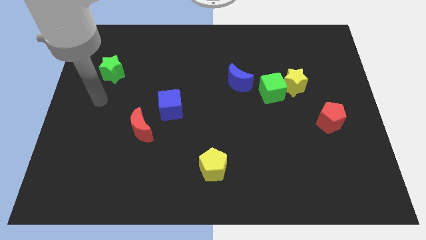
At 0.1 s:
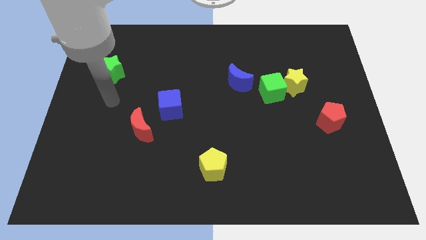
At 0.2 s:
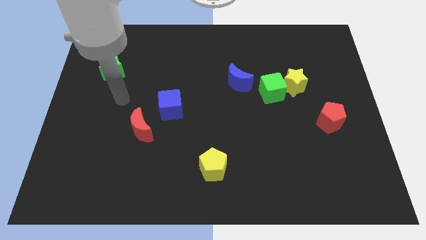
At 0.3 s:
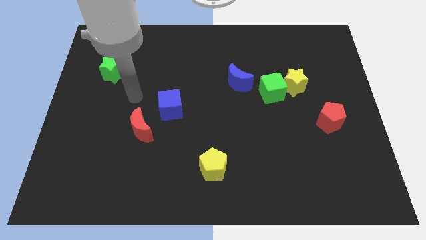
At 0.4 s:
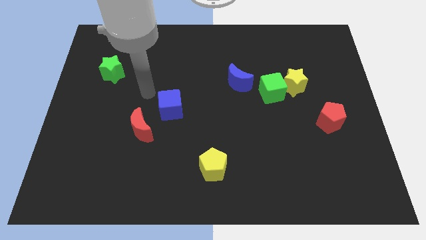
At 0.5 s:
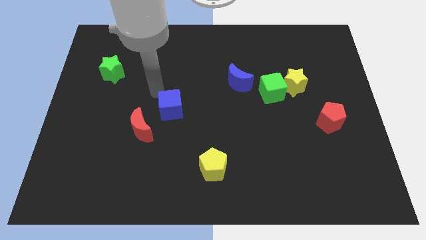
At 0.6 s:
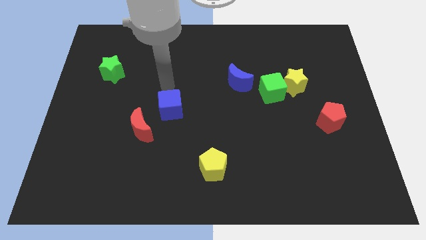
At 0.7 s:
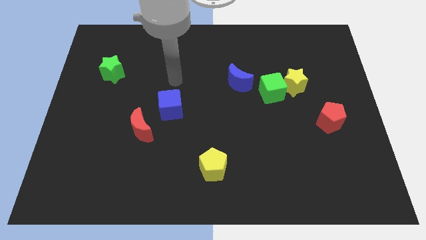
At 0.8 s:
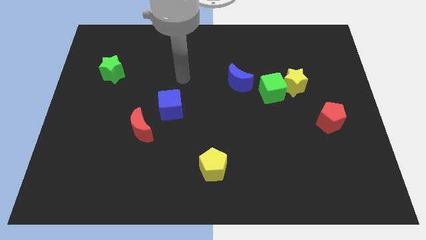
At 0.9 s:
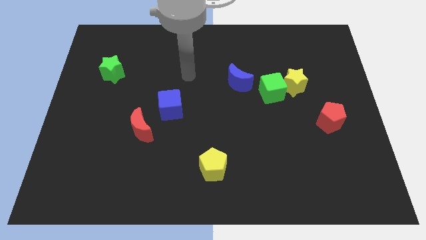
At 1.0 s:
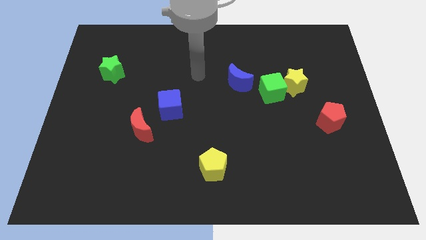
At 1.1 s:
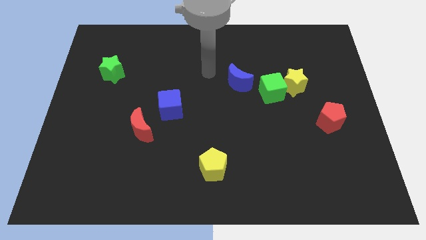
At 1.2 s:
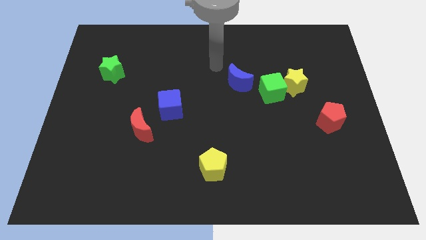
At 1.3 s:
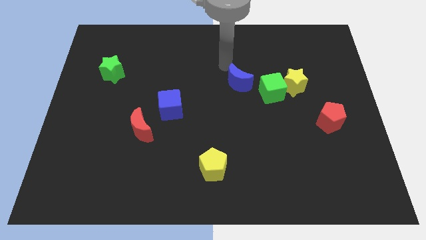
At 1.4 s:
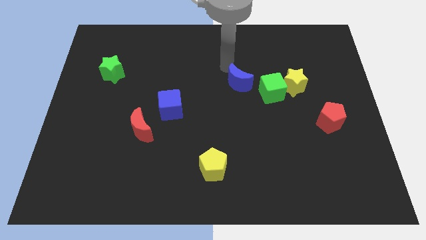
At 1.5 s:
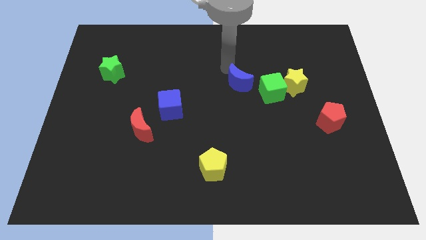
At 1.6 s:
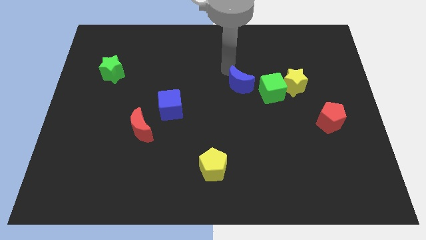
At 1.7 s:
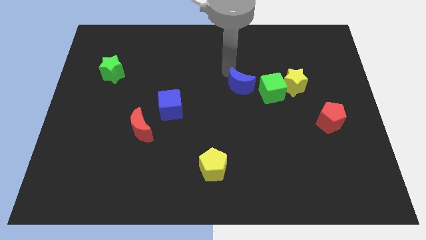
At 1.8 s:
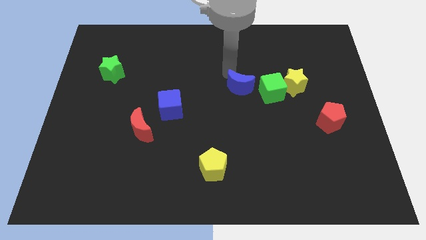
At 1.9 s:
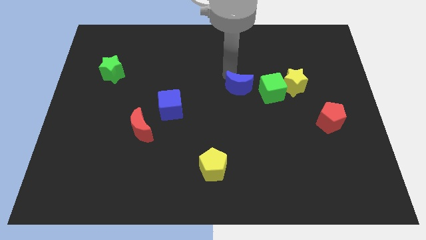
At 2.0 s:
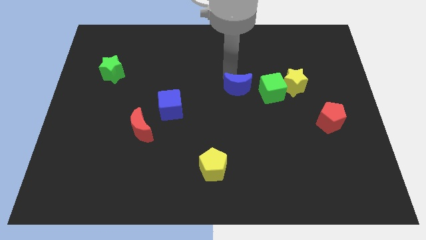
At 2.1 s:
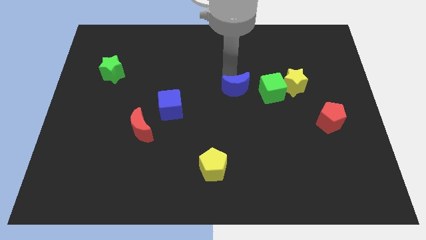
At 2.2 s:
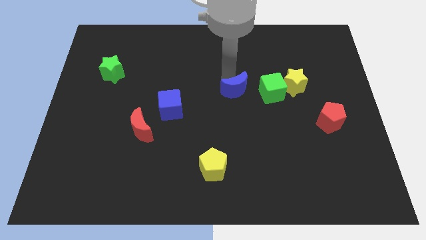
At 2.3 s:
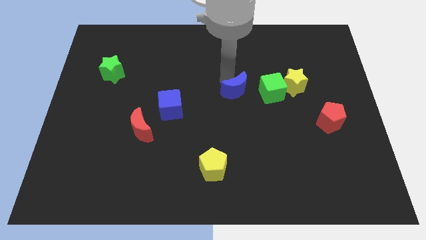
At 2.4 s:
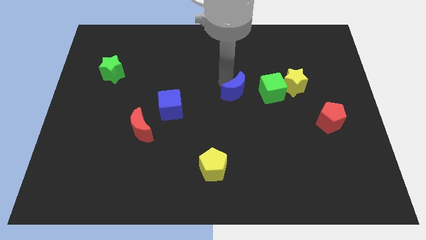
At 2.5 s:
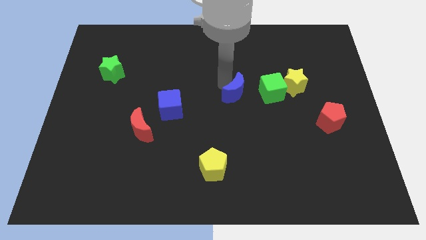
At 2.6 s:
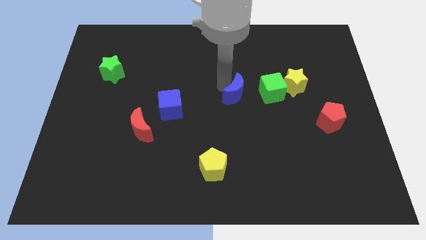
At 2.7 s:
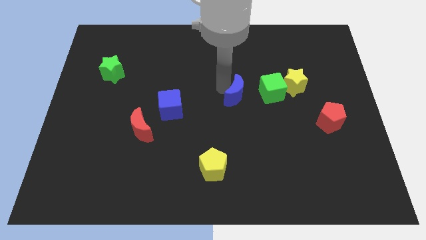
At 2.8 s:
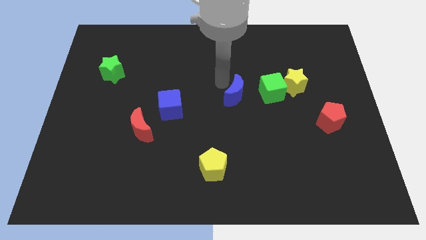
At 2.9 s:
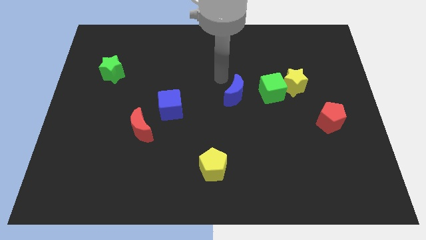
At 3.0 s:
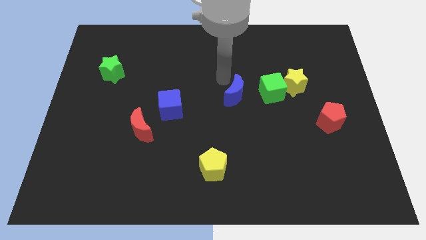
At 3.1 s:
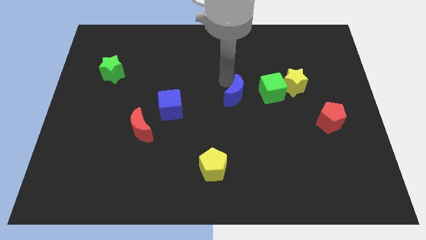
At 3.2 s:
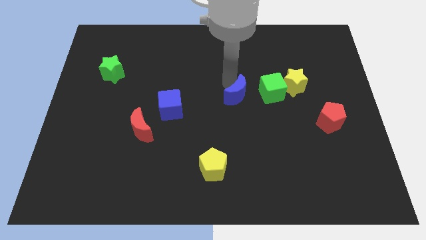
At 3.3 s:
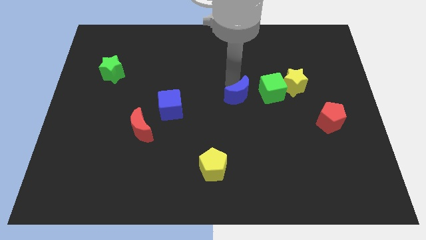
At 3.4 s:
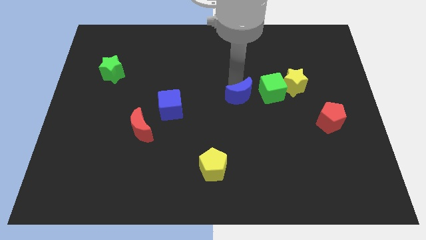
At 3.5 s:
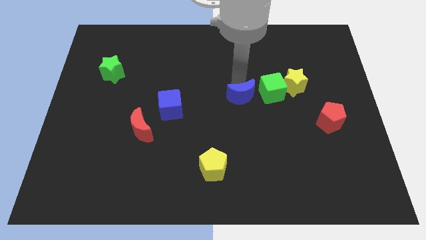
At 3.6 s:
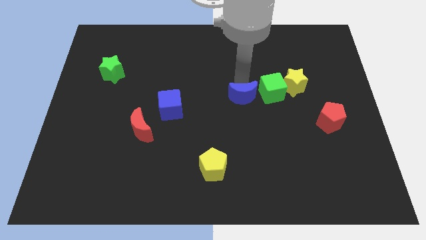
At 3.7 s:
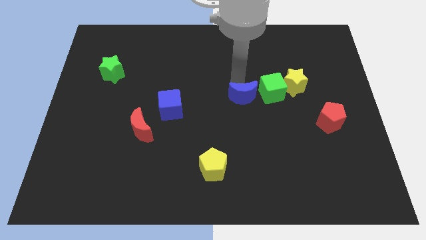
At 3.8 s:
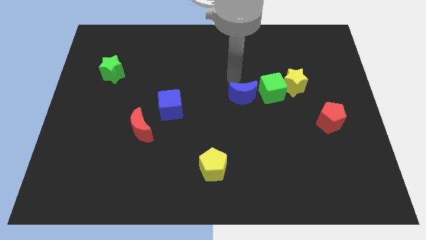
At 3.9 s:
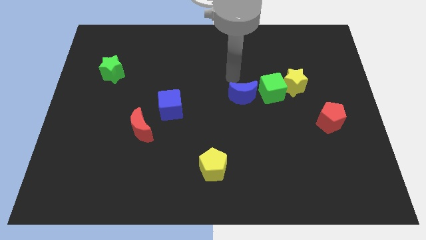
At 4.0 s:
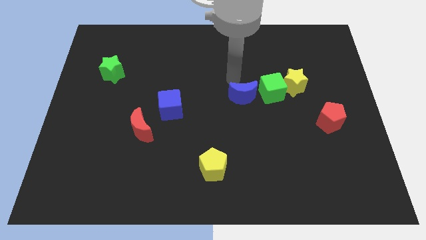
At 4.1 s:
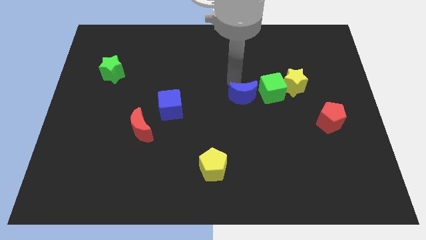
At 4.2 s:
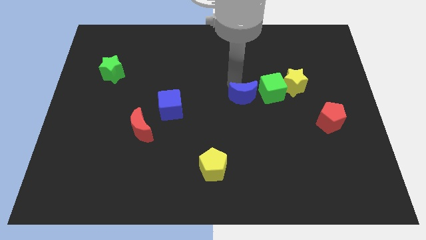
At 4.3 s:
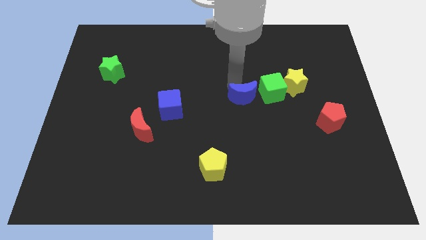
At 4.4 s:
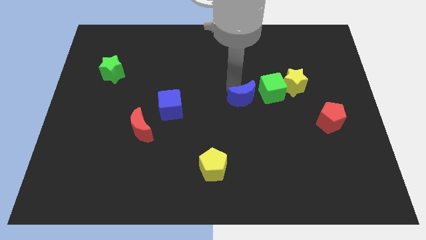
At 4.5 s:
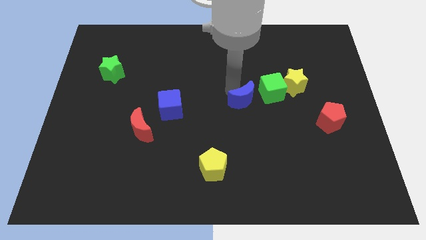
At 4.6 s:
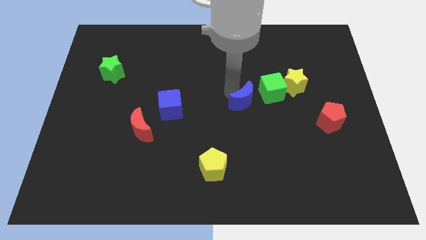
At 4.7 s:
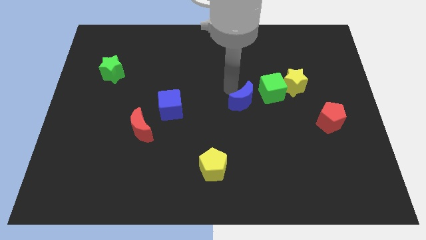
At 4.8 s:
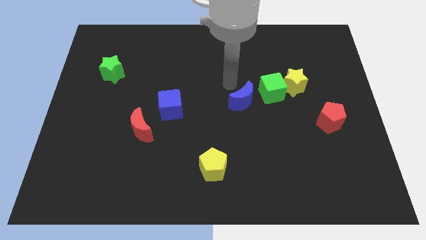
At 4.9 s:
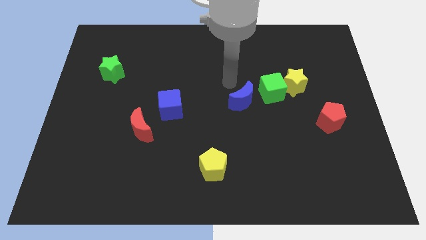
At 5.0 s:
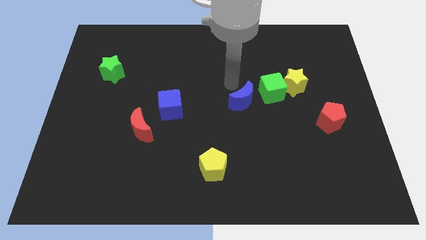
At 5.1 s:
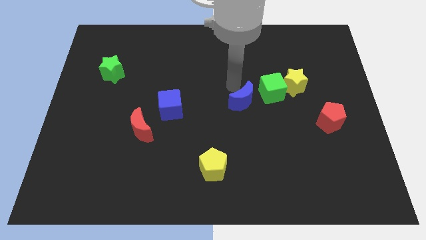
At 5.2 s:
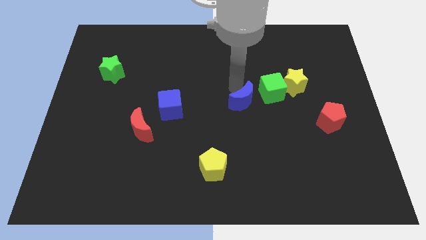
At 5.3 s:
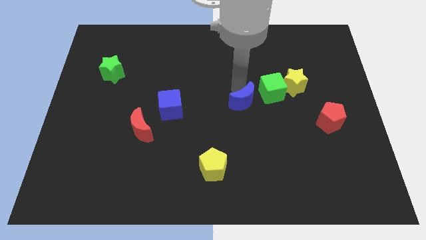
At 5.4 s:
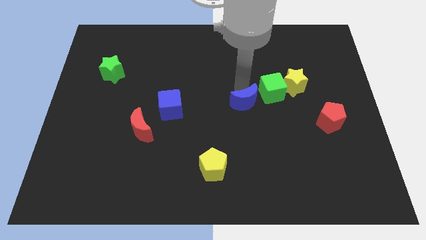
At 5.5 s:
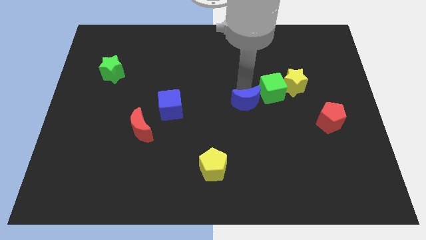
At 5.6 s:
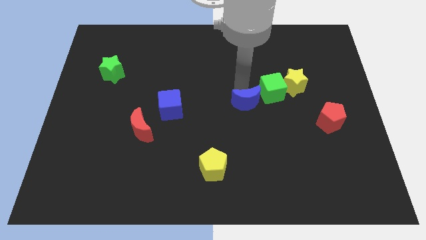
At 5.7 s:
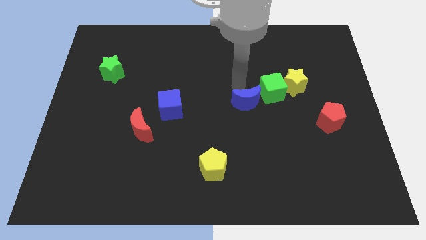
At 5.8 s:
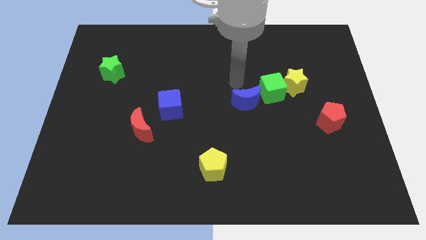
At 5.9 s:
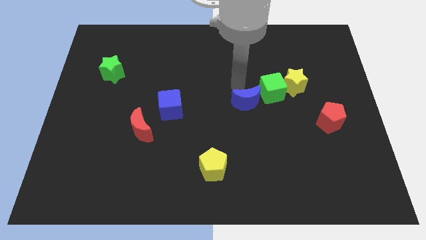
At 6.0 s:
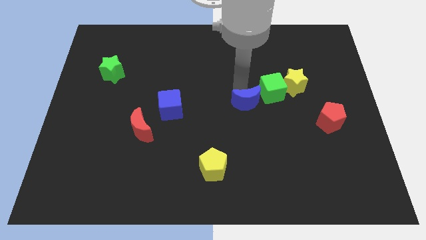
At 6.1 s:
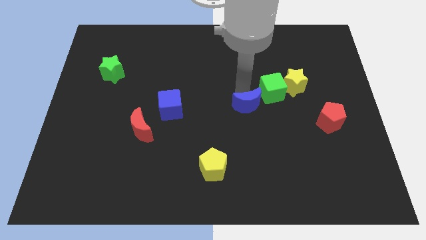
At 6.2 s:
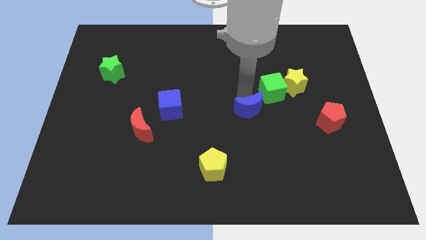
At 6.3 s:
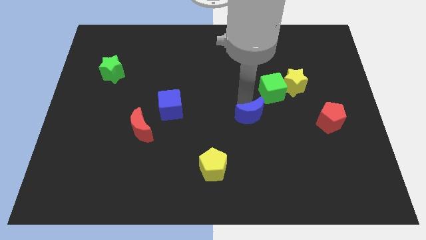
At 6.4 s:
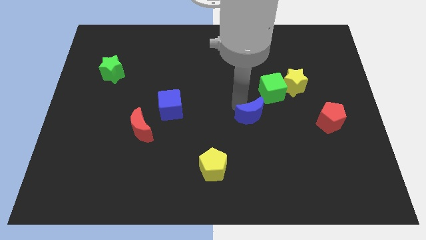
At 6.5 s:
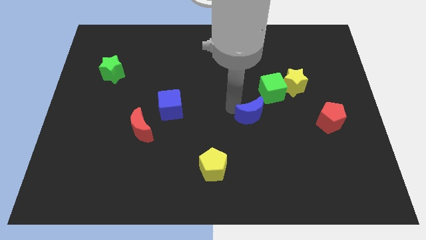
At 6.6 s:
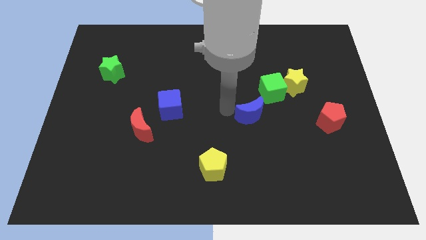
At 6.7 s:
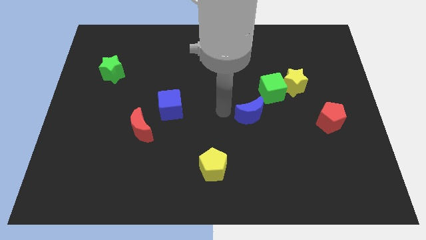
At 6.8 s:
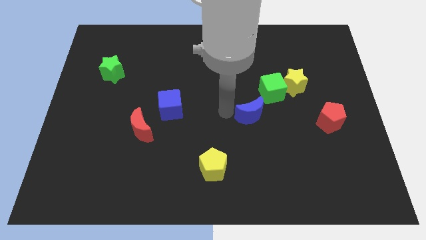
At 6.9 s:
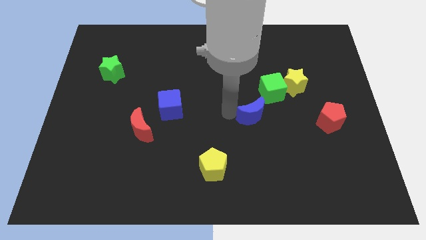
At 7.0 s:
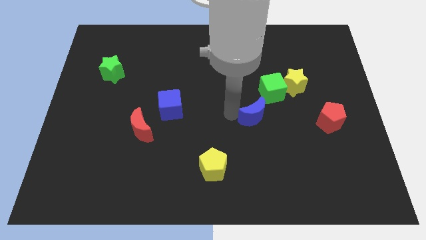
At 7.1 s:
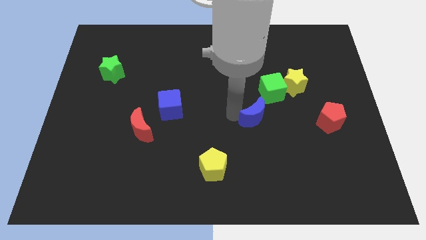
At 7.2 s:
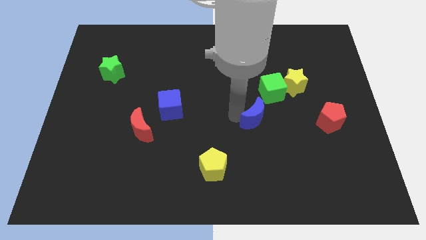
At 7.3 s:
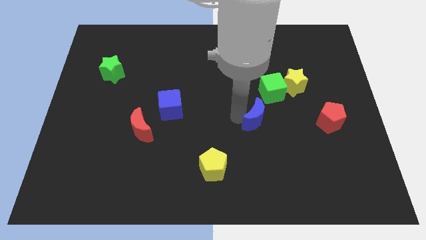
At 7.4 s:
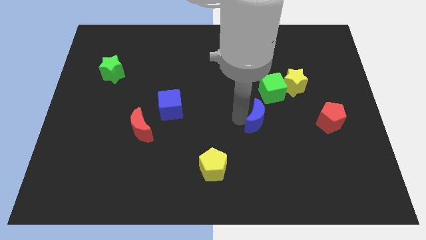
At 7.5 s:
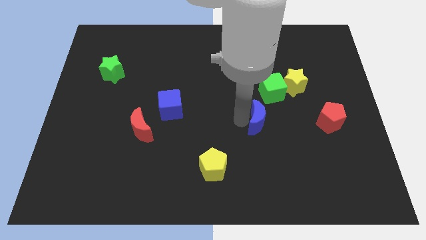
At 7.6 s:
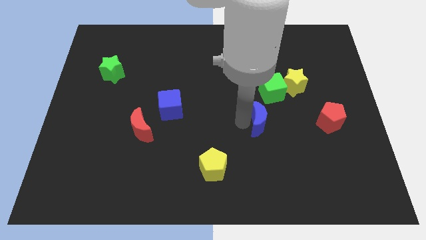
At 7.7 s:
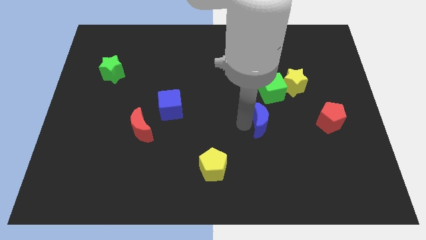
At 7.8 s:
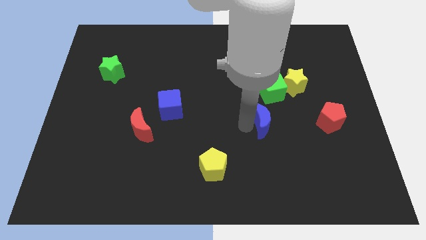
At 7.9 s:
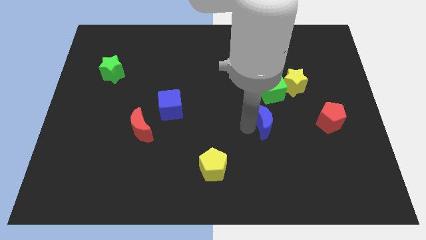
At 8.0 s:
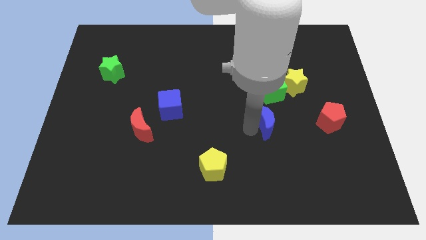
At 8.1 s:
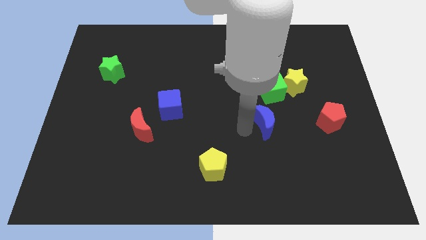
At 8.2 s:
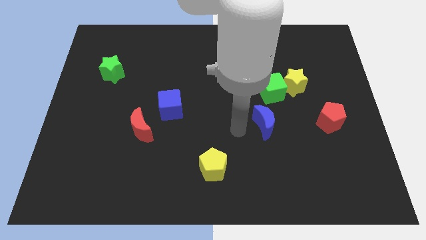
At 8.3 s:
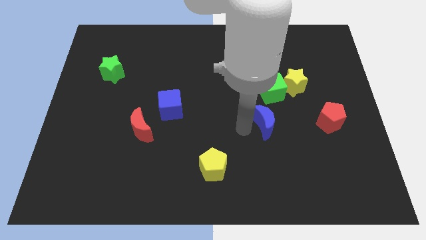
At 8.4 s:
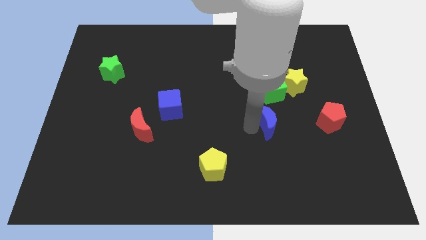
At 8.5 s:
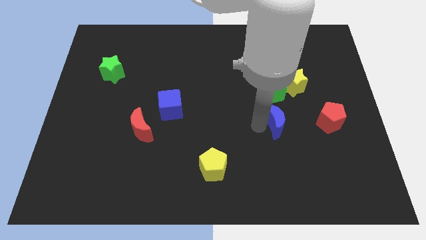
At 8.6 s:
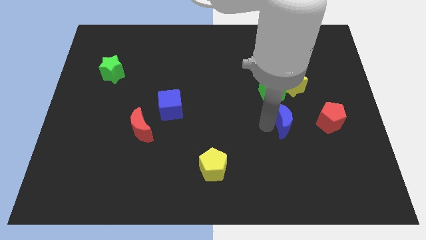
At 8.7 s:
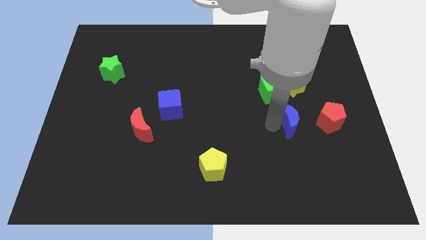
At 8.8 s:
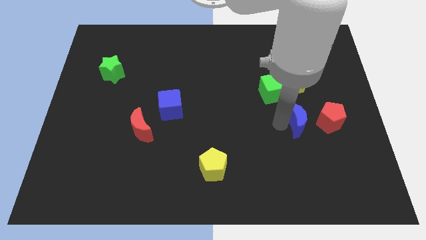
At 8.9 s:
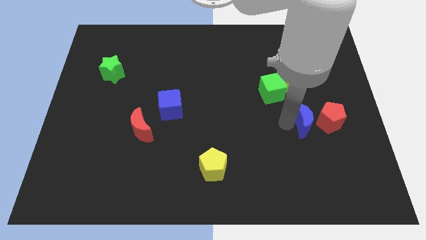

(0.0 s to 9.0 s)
put the blue moon close to the red pentagon
